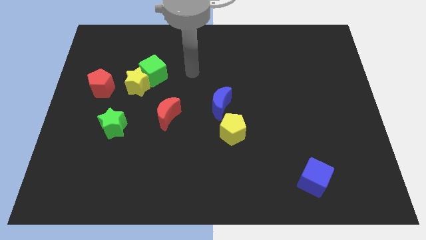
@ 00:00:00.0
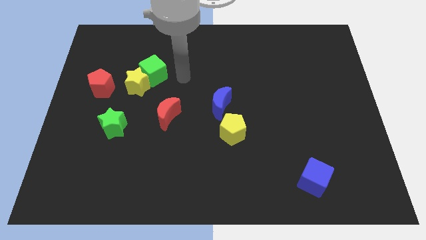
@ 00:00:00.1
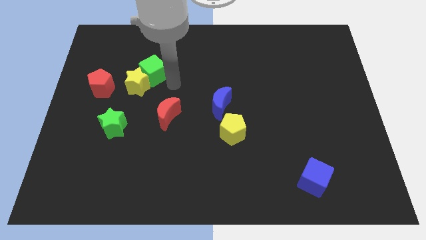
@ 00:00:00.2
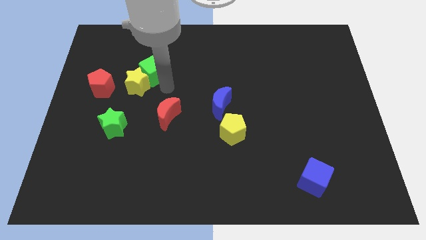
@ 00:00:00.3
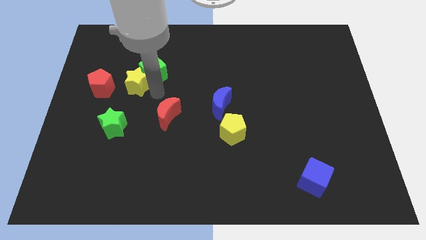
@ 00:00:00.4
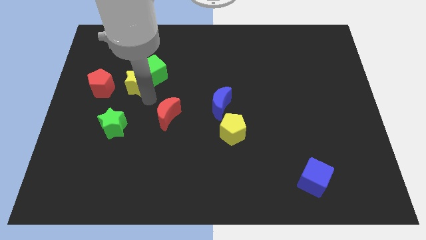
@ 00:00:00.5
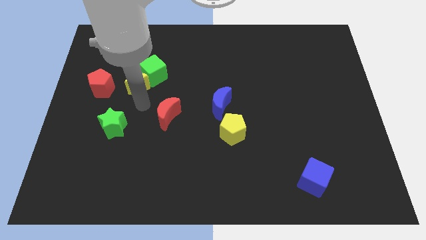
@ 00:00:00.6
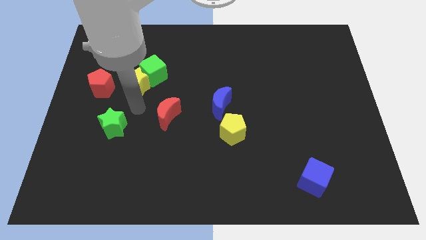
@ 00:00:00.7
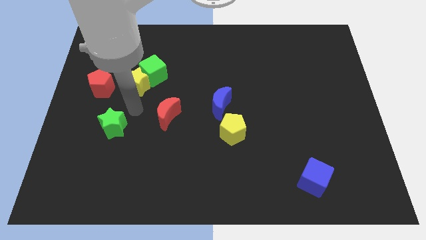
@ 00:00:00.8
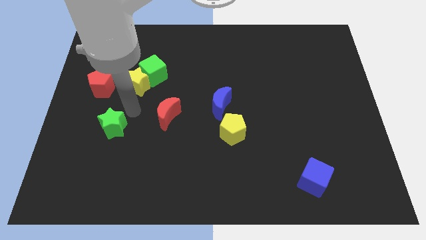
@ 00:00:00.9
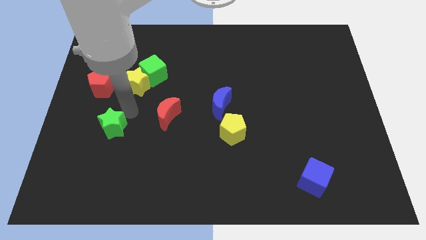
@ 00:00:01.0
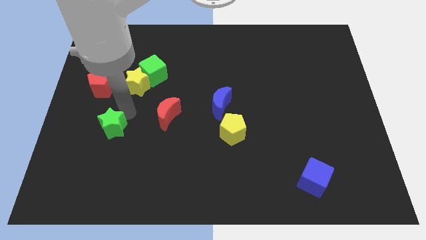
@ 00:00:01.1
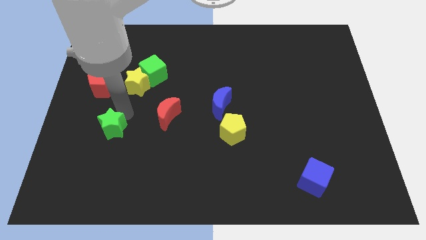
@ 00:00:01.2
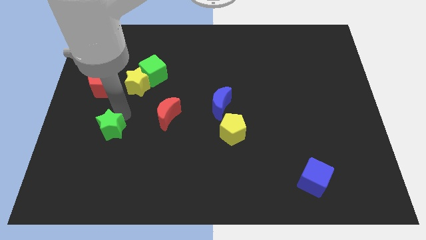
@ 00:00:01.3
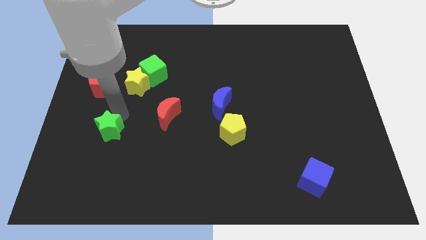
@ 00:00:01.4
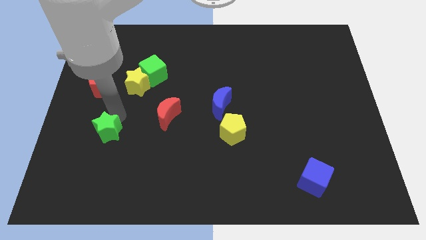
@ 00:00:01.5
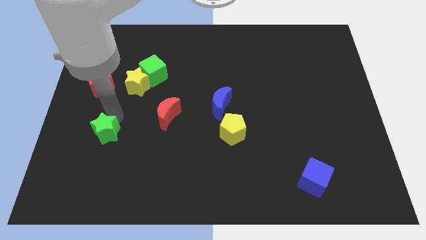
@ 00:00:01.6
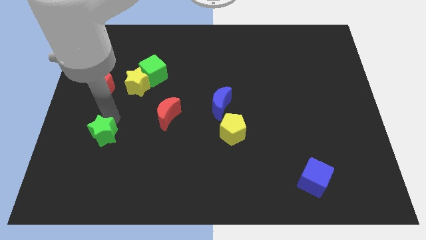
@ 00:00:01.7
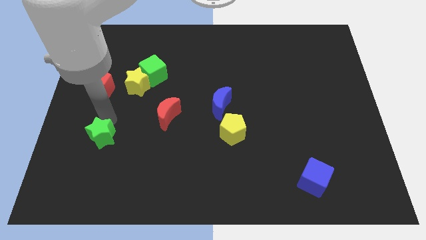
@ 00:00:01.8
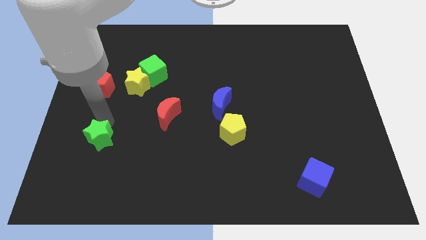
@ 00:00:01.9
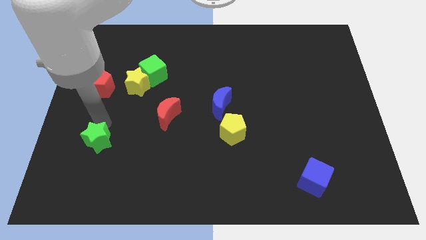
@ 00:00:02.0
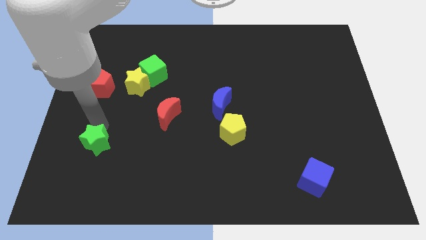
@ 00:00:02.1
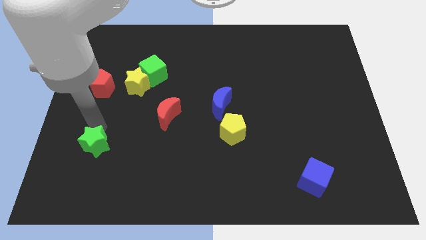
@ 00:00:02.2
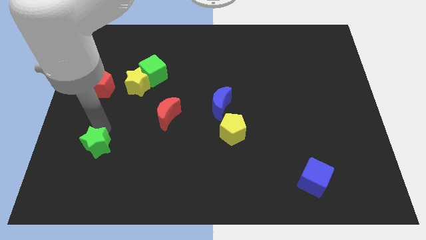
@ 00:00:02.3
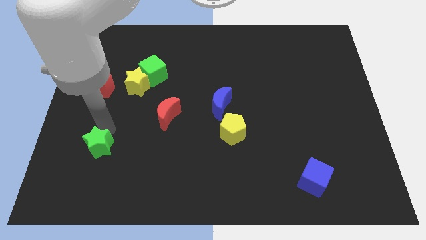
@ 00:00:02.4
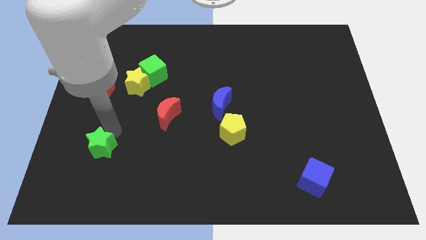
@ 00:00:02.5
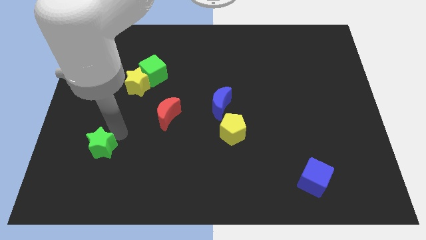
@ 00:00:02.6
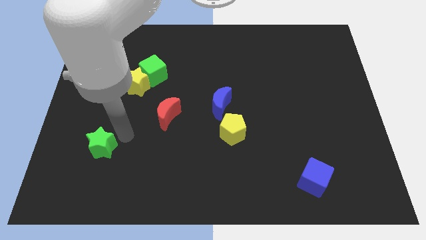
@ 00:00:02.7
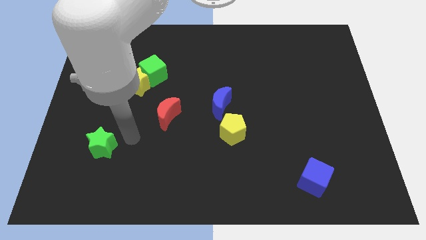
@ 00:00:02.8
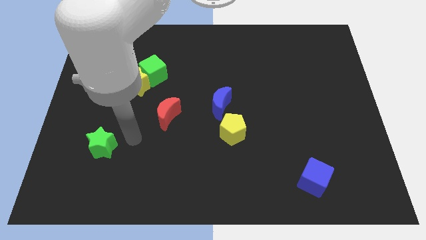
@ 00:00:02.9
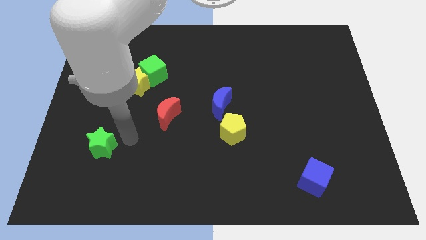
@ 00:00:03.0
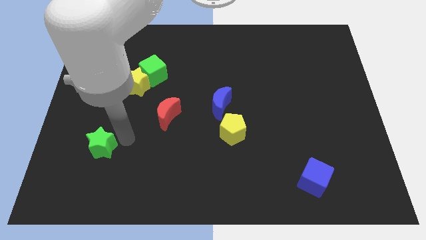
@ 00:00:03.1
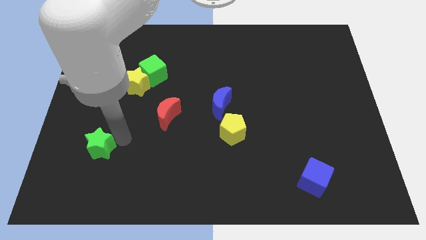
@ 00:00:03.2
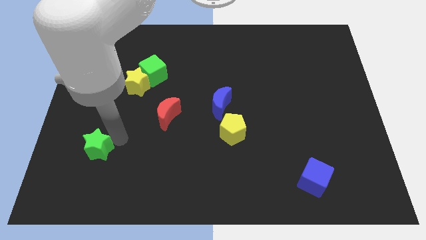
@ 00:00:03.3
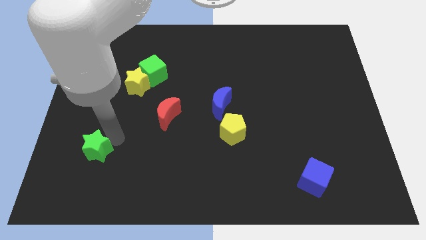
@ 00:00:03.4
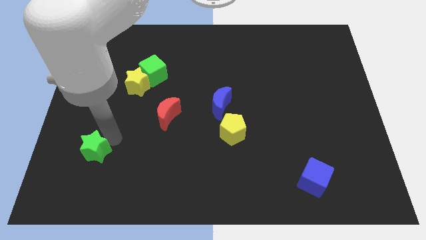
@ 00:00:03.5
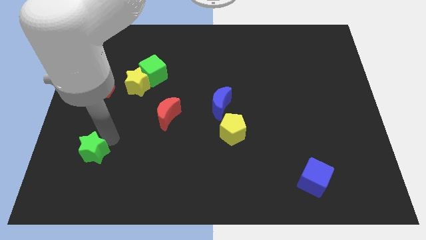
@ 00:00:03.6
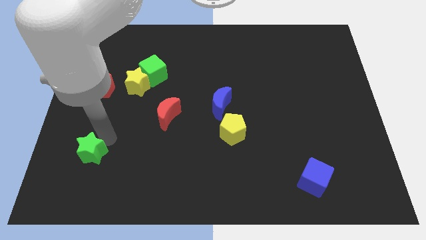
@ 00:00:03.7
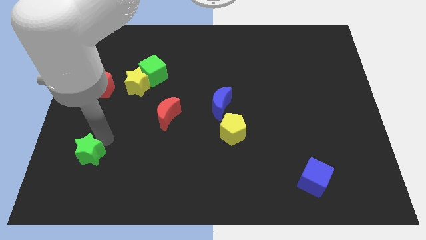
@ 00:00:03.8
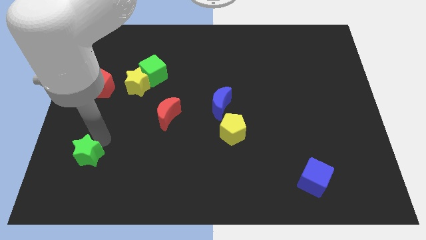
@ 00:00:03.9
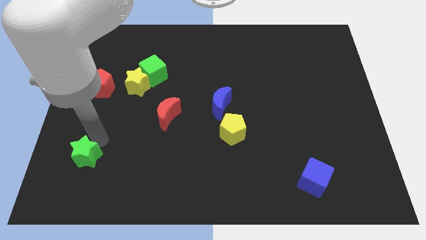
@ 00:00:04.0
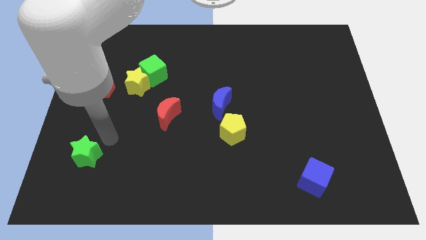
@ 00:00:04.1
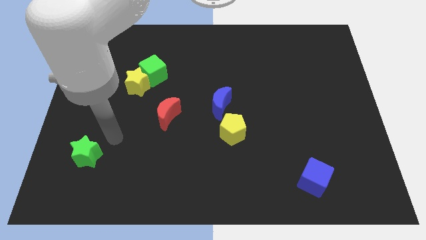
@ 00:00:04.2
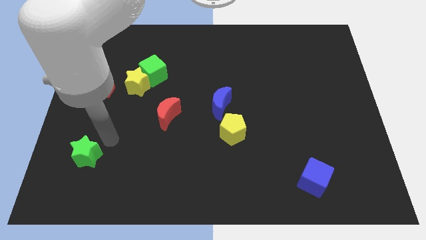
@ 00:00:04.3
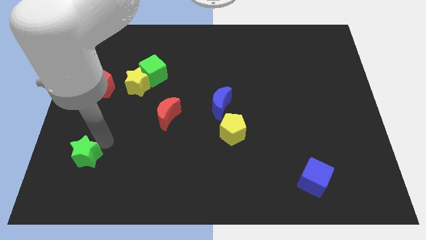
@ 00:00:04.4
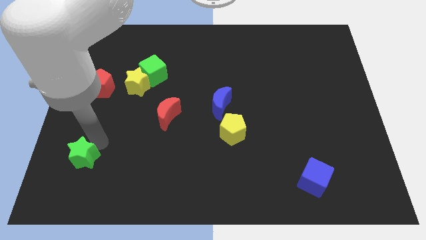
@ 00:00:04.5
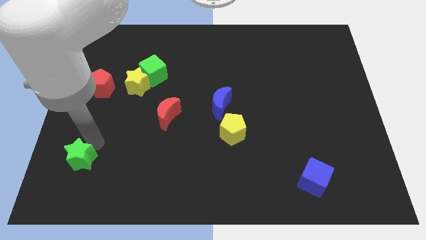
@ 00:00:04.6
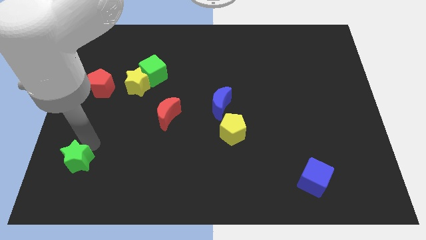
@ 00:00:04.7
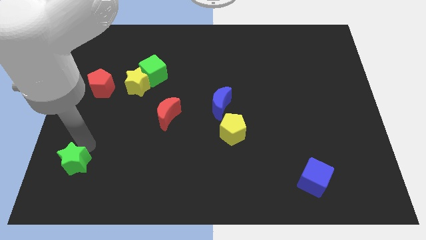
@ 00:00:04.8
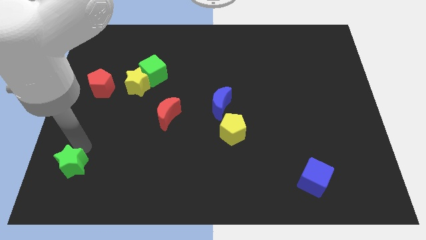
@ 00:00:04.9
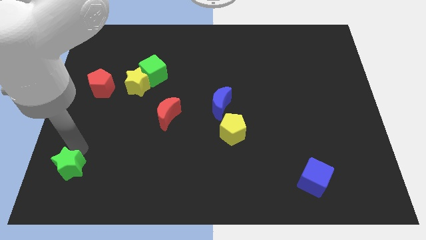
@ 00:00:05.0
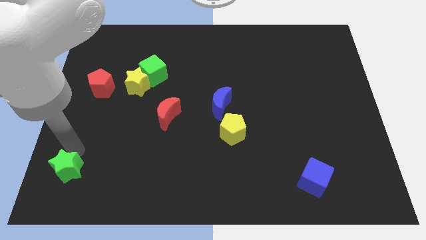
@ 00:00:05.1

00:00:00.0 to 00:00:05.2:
push the green star to the bottom left corner
